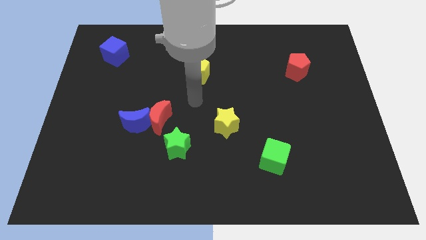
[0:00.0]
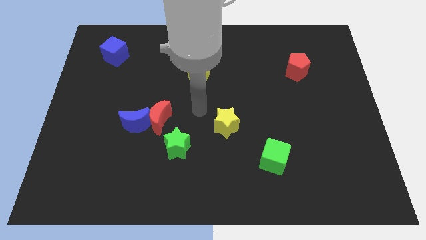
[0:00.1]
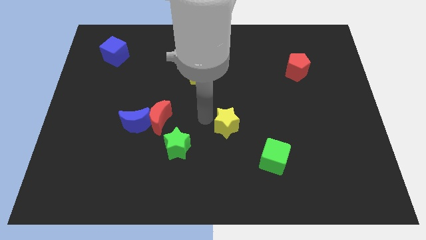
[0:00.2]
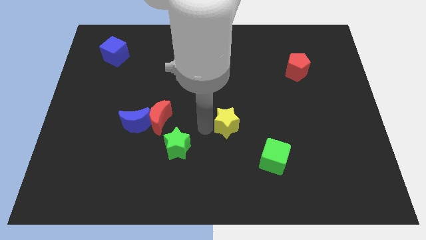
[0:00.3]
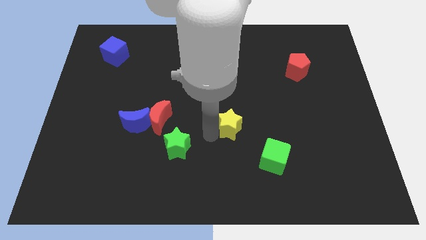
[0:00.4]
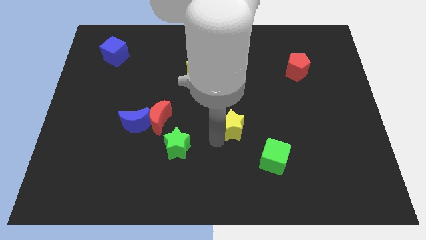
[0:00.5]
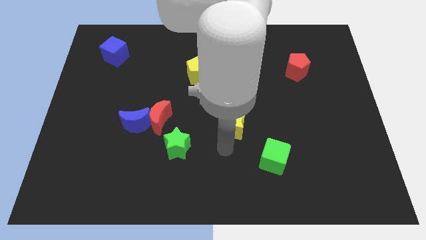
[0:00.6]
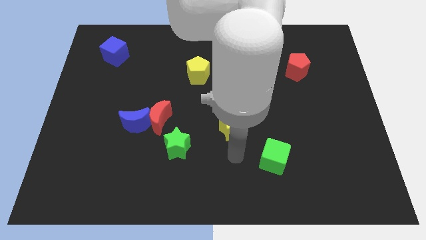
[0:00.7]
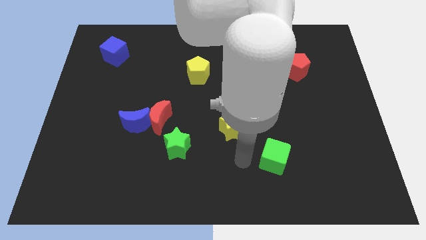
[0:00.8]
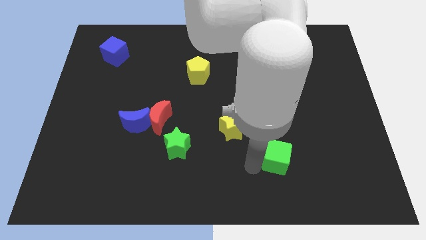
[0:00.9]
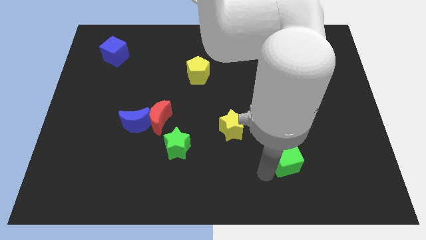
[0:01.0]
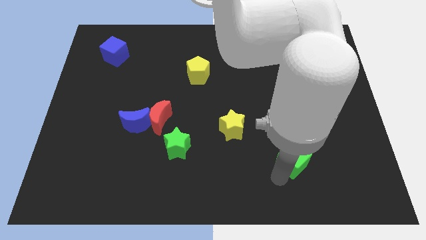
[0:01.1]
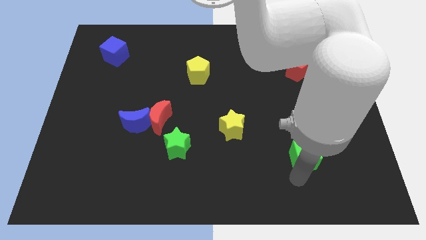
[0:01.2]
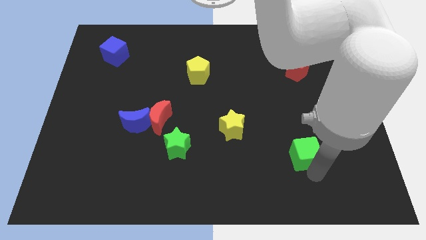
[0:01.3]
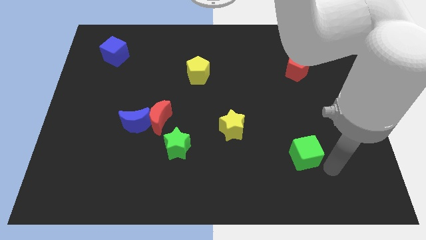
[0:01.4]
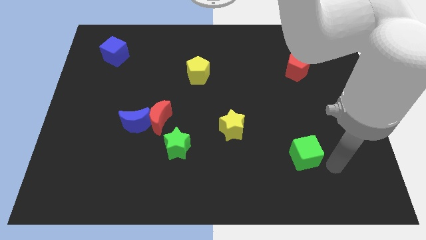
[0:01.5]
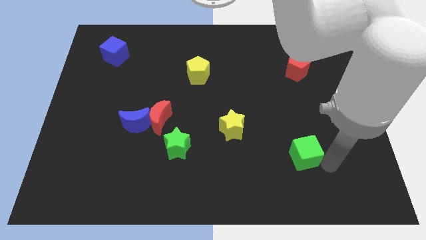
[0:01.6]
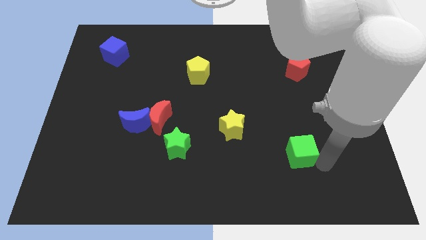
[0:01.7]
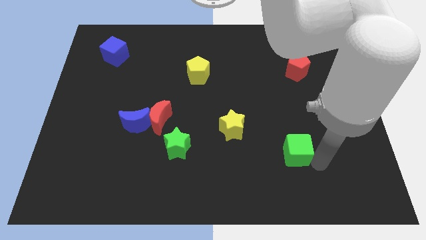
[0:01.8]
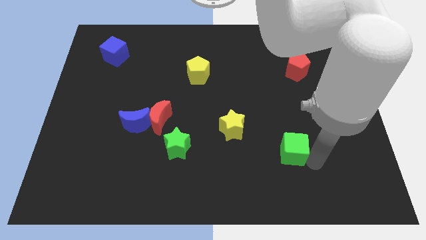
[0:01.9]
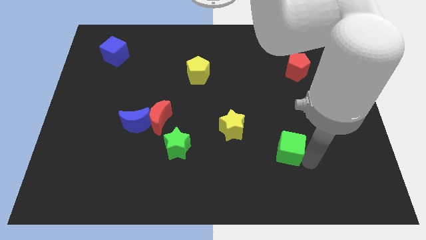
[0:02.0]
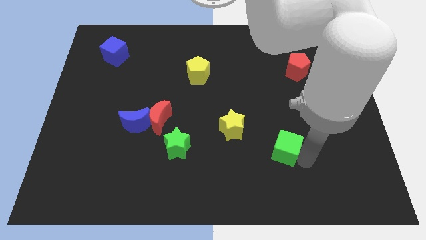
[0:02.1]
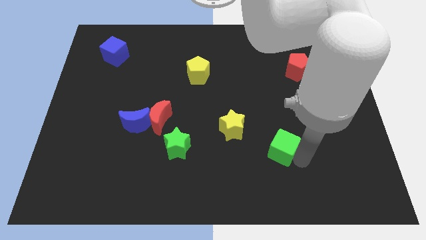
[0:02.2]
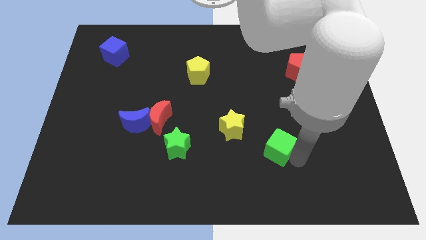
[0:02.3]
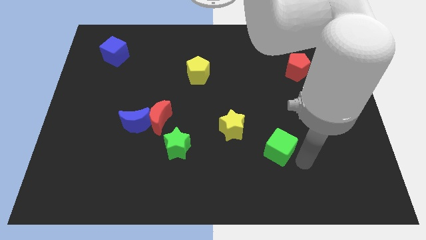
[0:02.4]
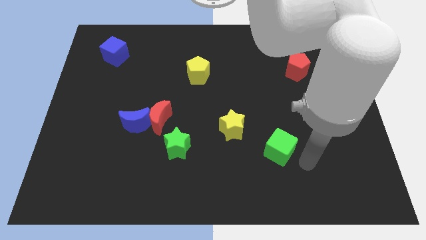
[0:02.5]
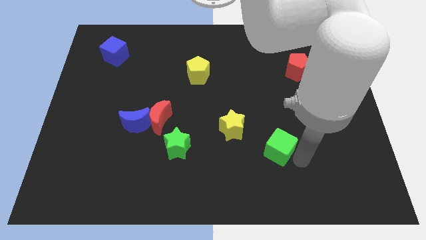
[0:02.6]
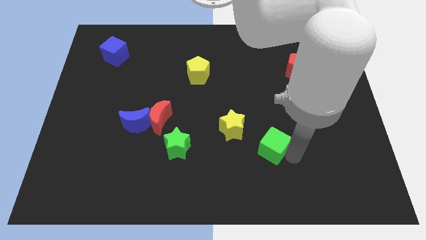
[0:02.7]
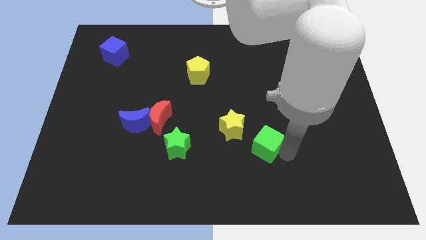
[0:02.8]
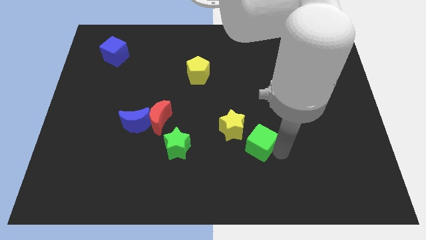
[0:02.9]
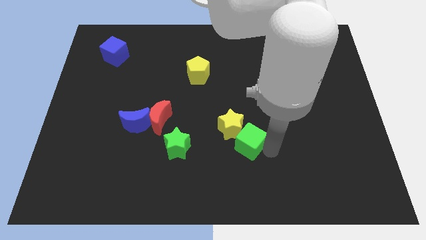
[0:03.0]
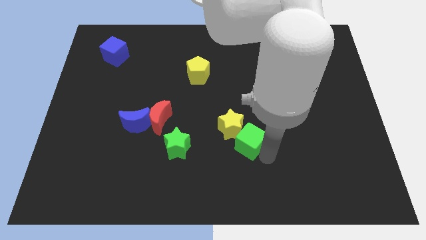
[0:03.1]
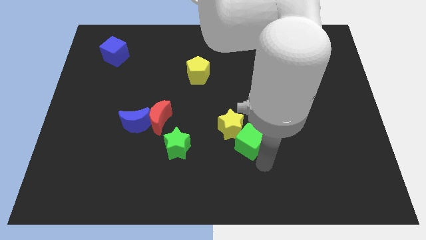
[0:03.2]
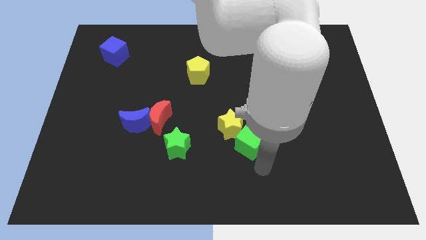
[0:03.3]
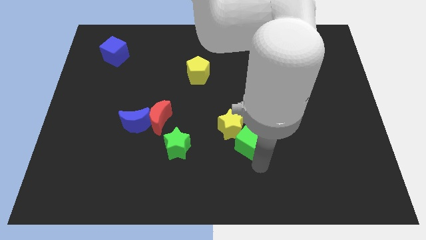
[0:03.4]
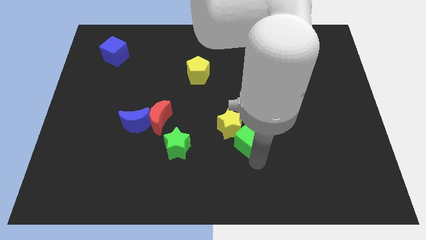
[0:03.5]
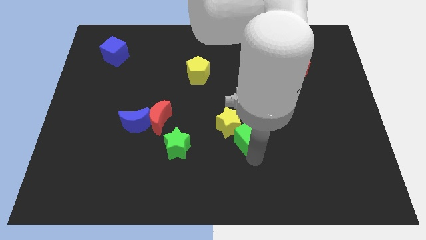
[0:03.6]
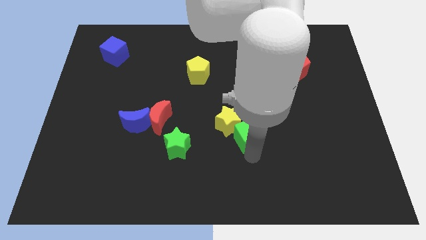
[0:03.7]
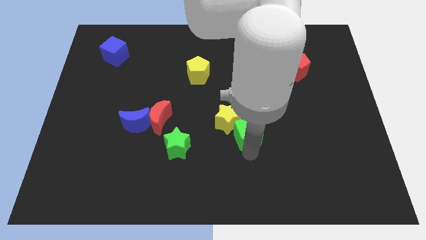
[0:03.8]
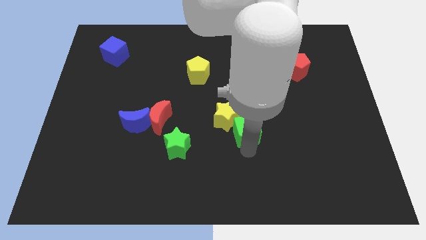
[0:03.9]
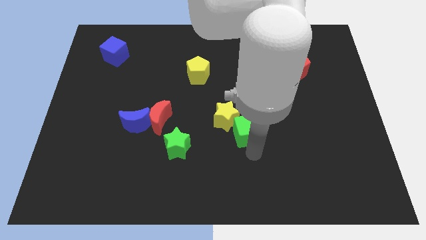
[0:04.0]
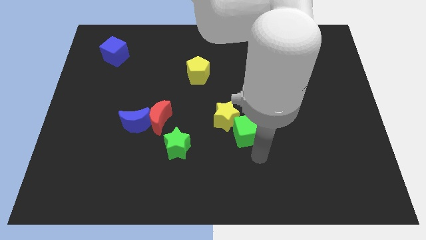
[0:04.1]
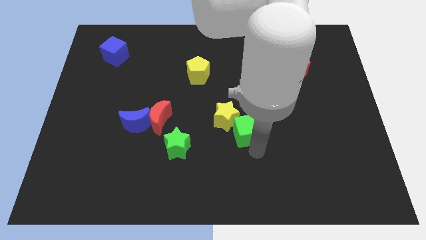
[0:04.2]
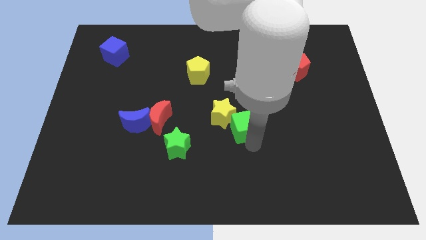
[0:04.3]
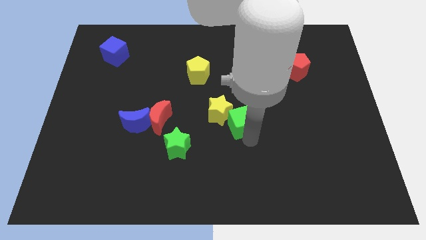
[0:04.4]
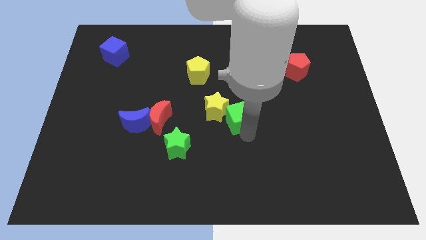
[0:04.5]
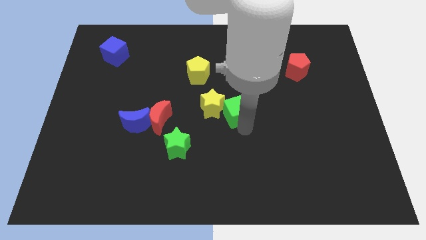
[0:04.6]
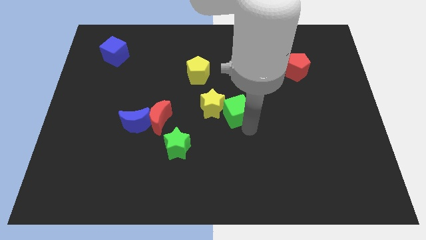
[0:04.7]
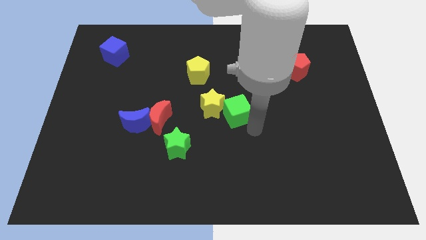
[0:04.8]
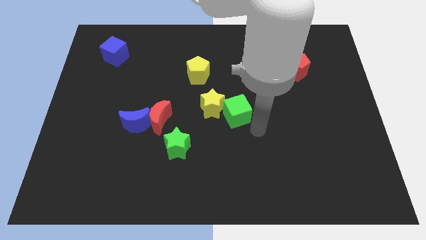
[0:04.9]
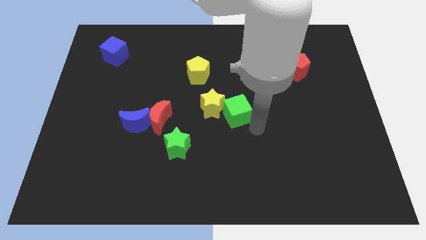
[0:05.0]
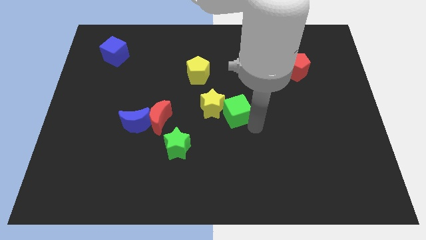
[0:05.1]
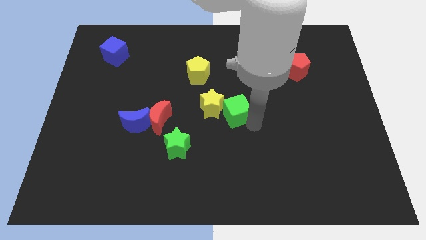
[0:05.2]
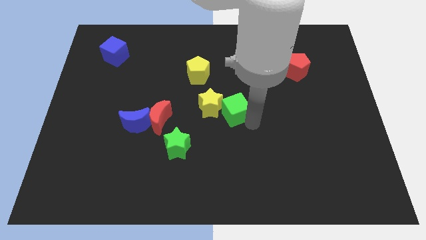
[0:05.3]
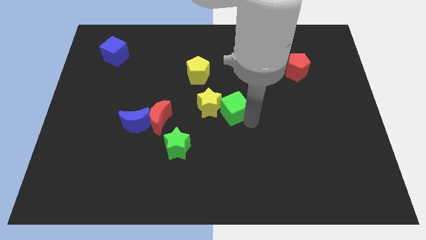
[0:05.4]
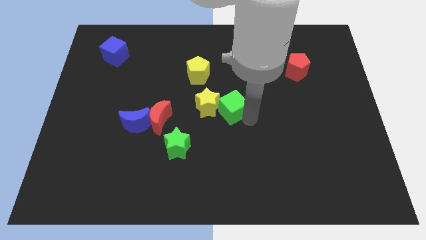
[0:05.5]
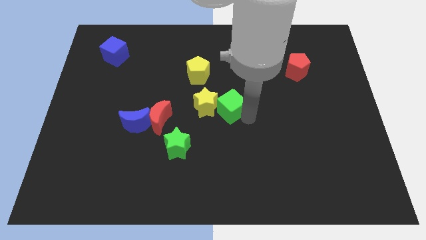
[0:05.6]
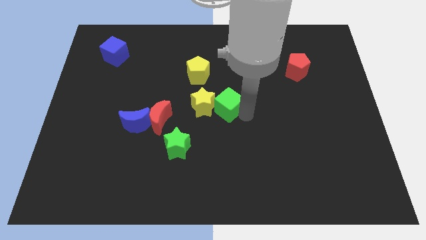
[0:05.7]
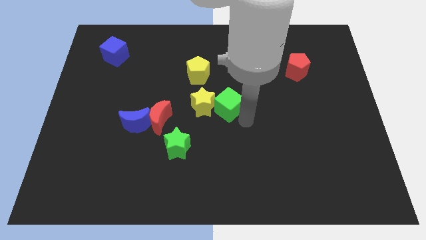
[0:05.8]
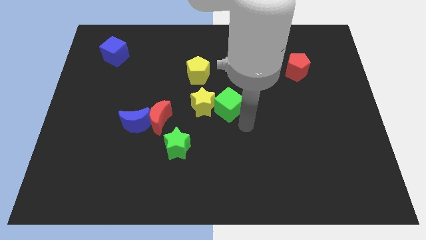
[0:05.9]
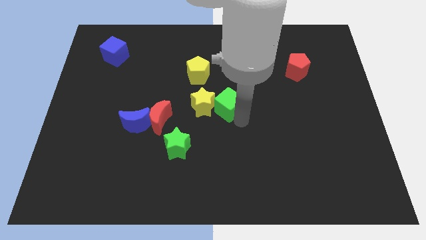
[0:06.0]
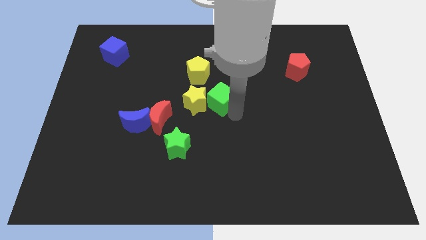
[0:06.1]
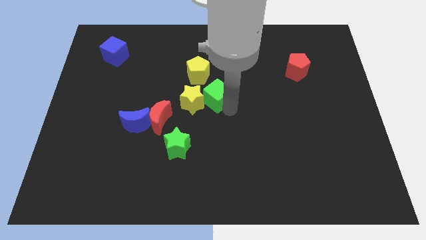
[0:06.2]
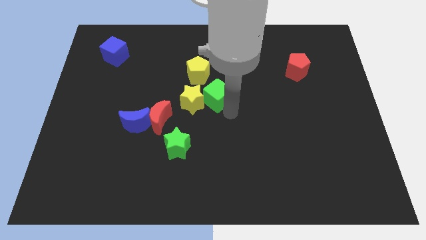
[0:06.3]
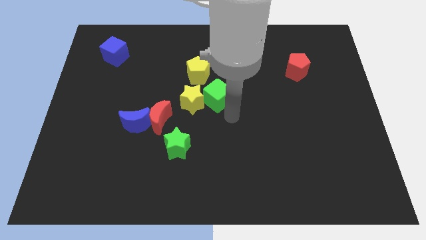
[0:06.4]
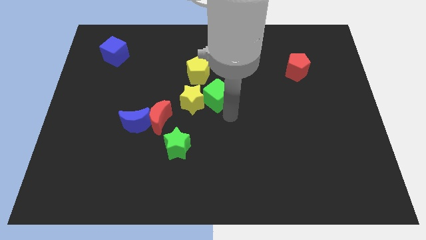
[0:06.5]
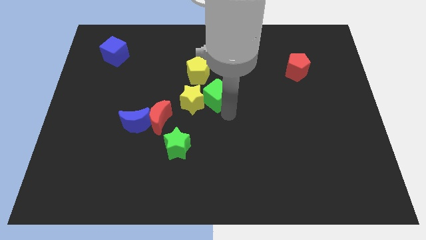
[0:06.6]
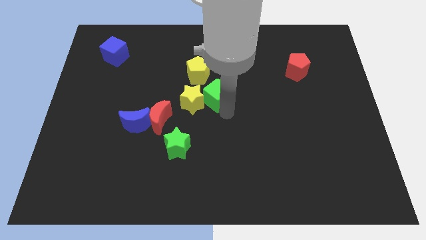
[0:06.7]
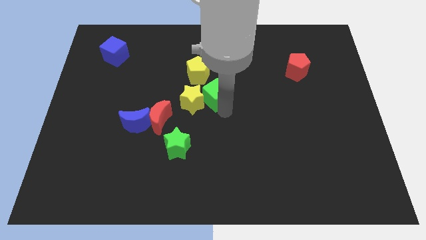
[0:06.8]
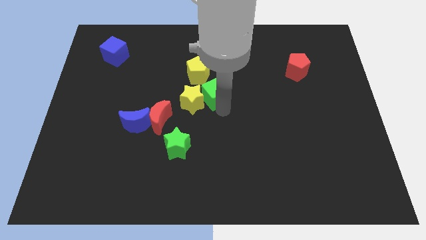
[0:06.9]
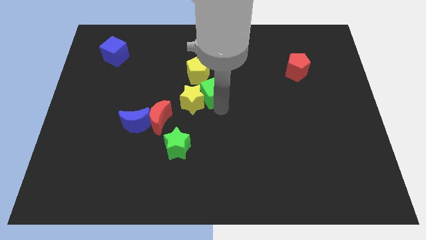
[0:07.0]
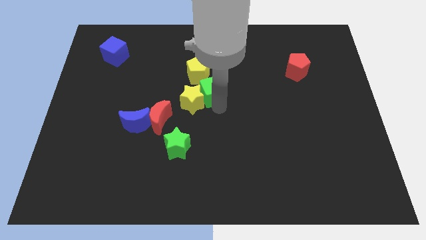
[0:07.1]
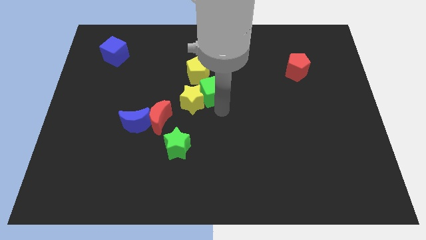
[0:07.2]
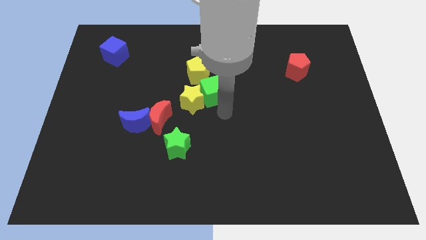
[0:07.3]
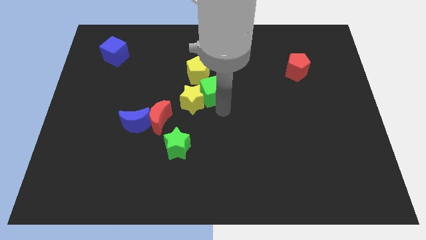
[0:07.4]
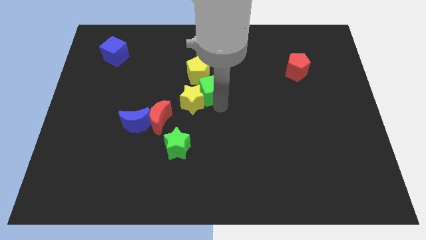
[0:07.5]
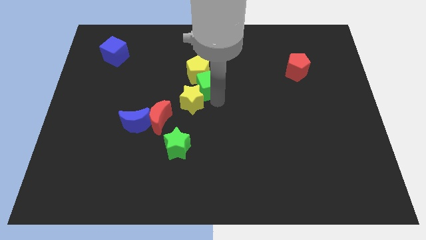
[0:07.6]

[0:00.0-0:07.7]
slide the green cube close to the yellow pentagon
